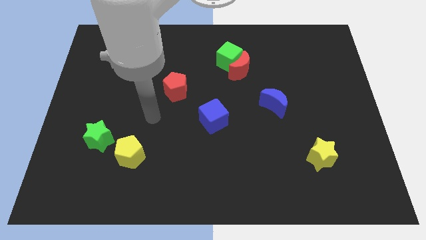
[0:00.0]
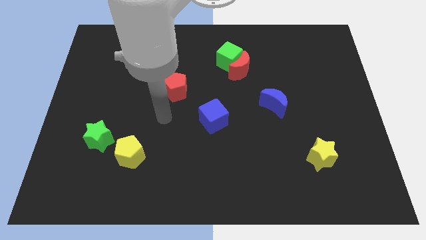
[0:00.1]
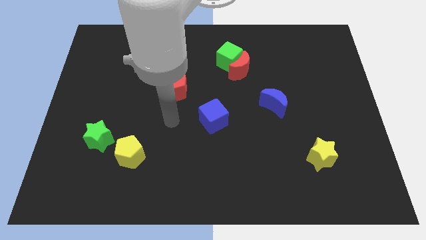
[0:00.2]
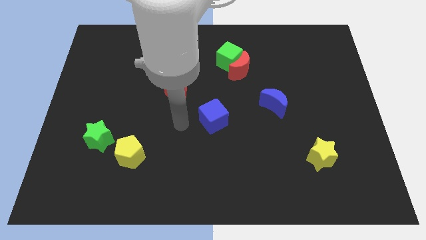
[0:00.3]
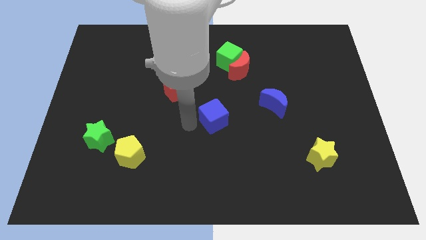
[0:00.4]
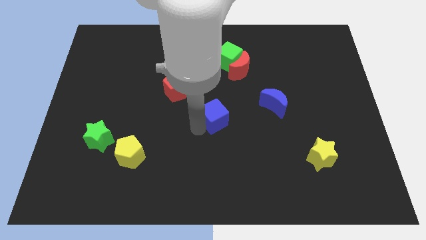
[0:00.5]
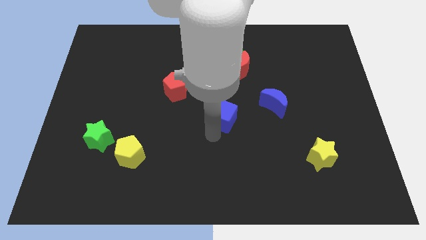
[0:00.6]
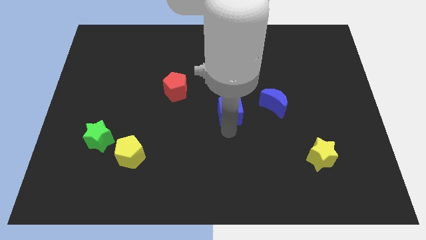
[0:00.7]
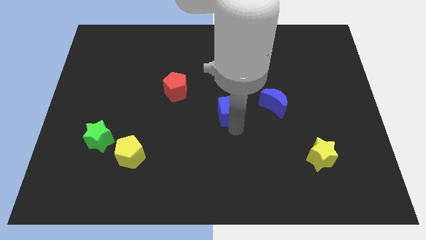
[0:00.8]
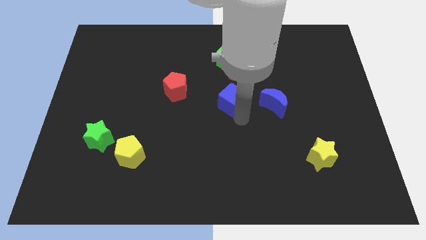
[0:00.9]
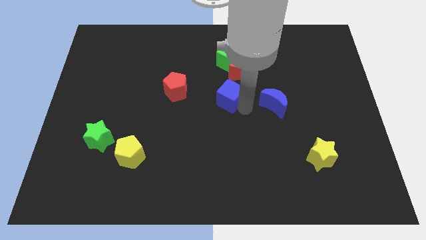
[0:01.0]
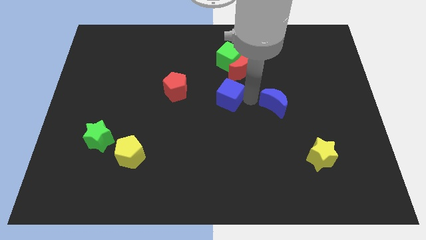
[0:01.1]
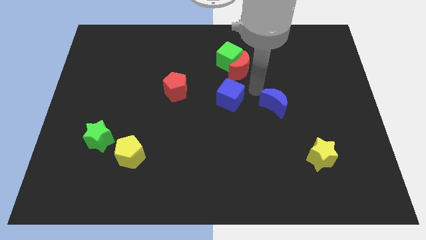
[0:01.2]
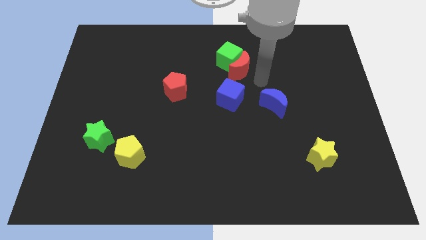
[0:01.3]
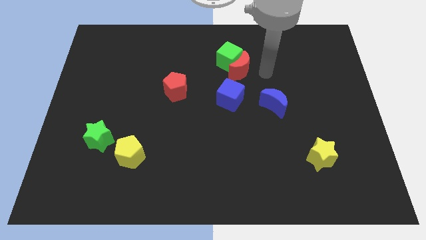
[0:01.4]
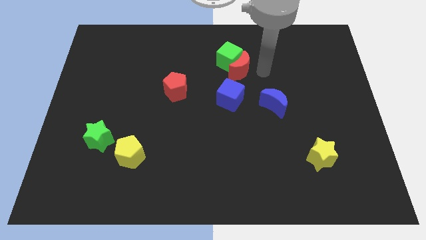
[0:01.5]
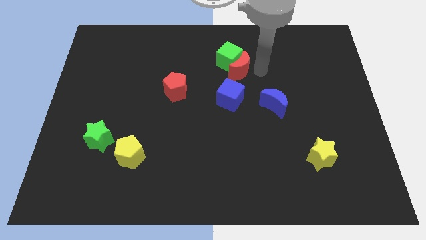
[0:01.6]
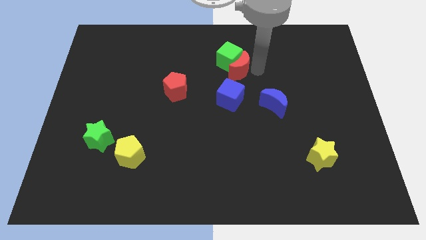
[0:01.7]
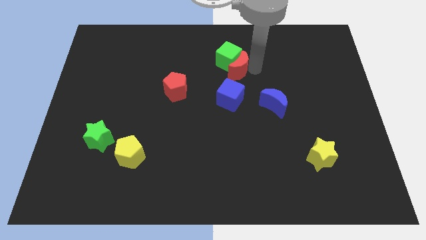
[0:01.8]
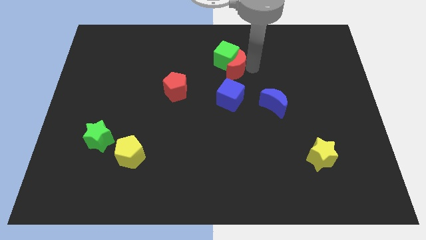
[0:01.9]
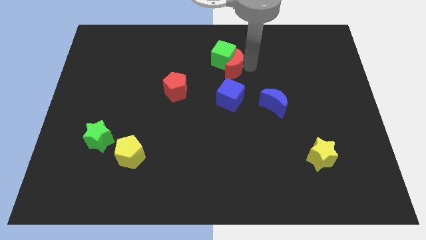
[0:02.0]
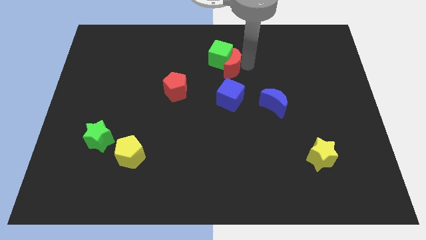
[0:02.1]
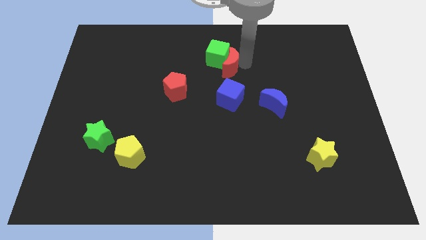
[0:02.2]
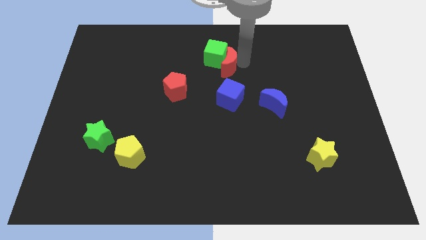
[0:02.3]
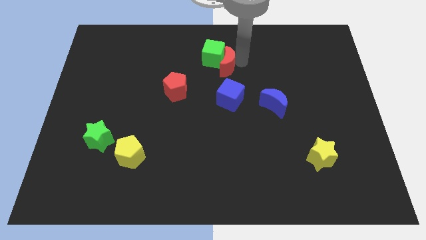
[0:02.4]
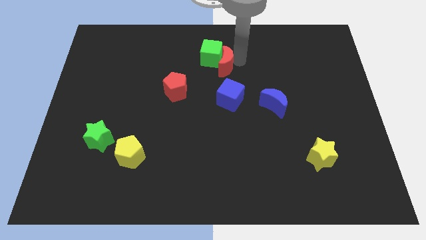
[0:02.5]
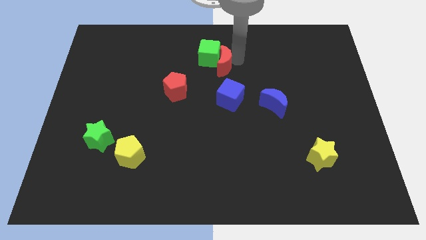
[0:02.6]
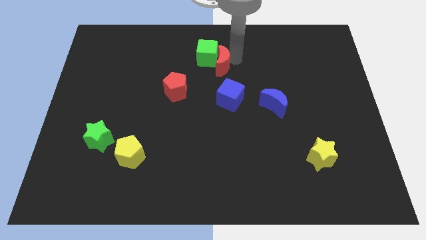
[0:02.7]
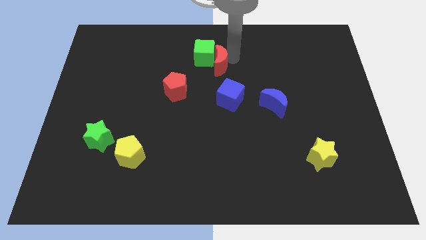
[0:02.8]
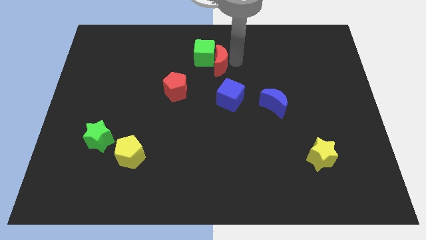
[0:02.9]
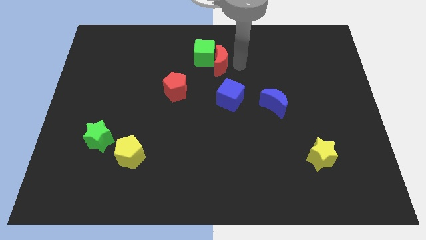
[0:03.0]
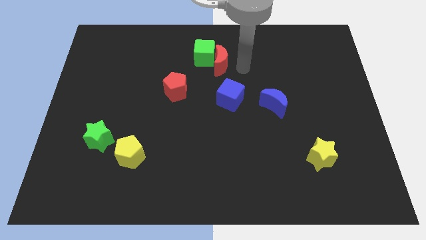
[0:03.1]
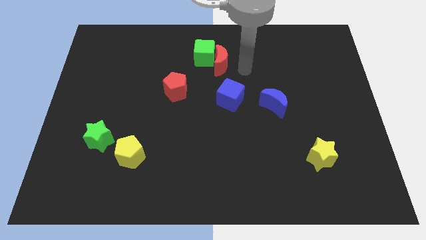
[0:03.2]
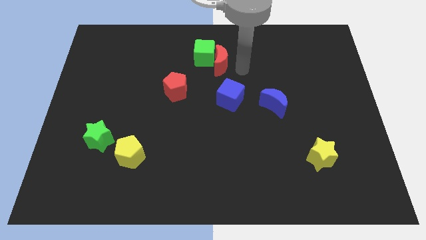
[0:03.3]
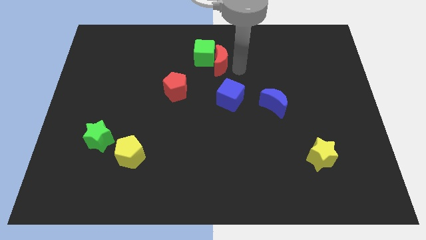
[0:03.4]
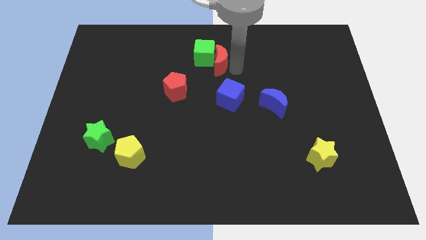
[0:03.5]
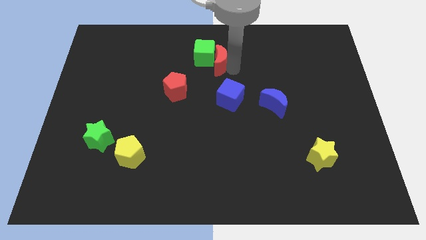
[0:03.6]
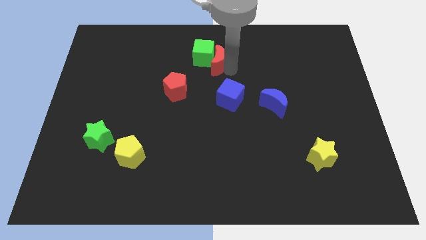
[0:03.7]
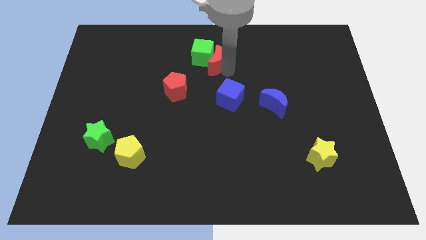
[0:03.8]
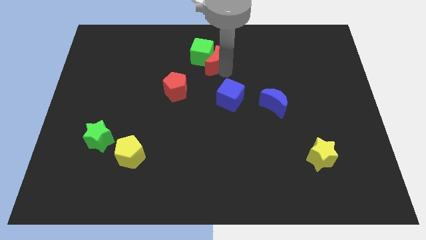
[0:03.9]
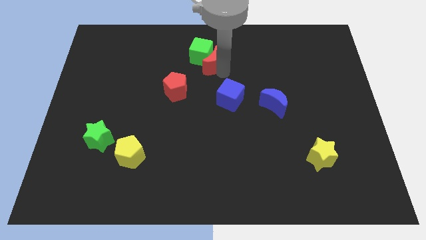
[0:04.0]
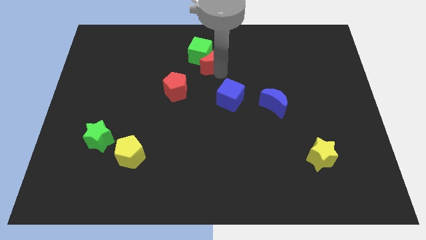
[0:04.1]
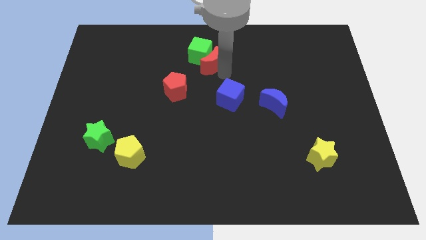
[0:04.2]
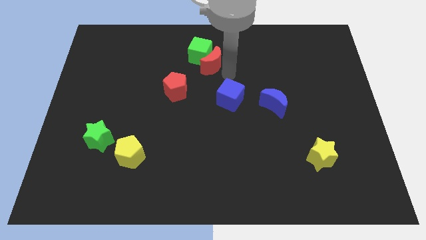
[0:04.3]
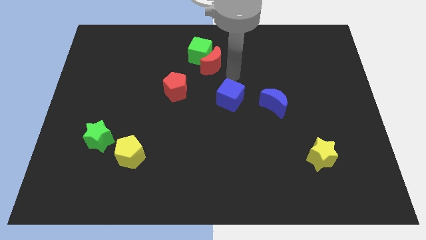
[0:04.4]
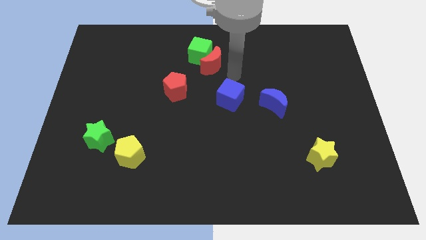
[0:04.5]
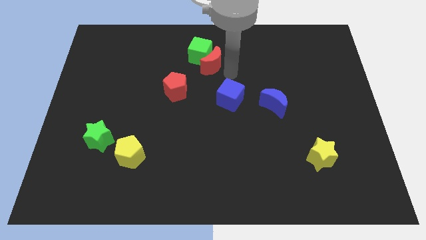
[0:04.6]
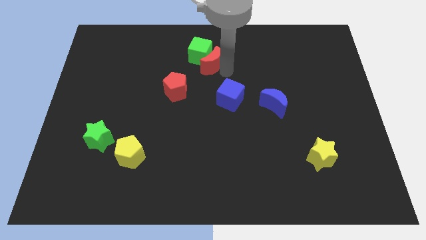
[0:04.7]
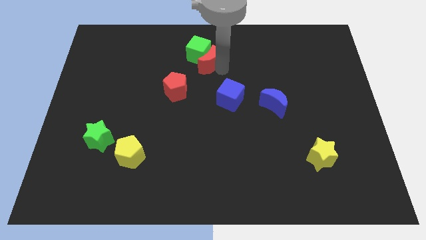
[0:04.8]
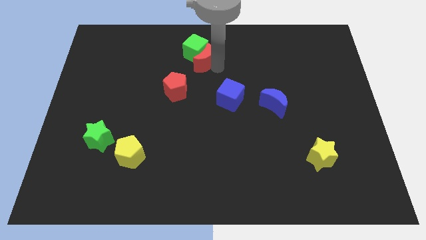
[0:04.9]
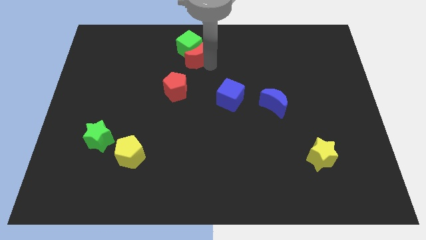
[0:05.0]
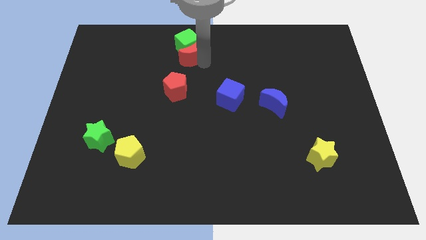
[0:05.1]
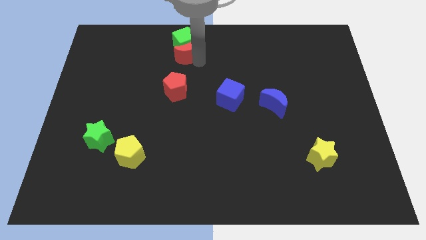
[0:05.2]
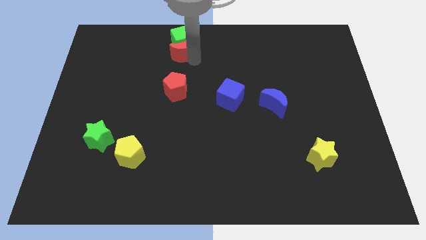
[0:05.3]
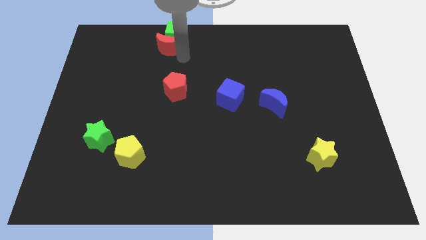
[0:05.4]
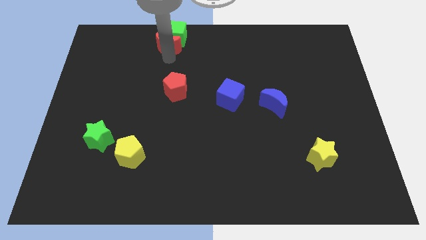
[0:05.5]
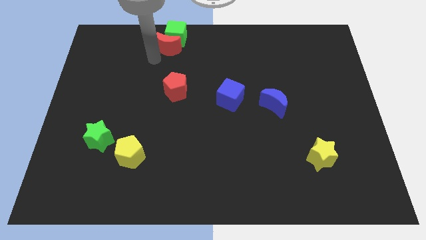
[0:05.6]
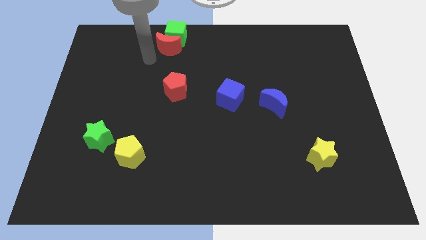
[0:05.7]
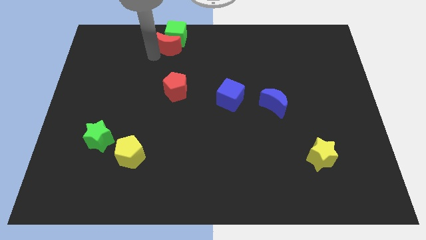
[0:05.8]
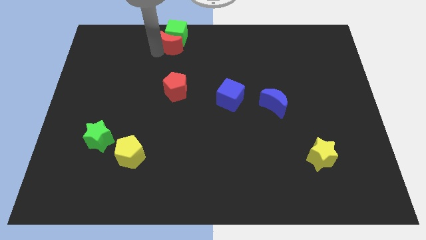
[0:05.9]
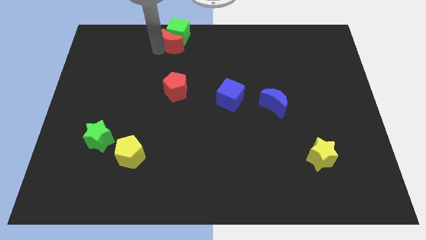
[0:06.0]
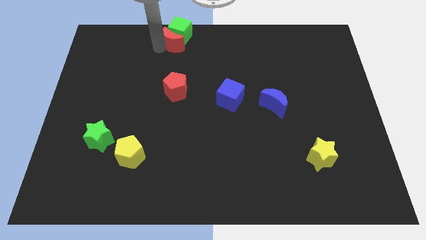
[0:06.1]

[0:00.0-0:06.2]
put the red moon to the top side
